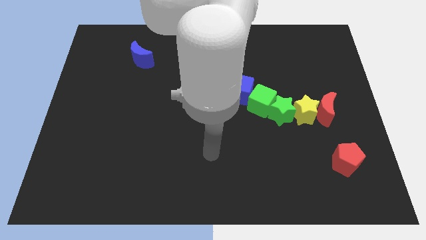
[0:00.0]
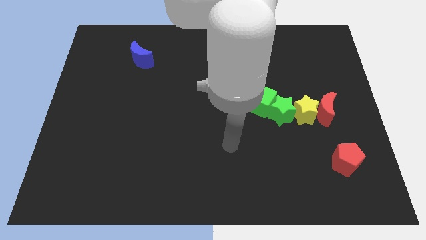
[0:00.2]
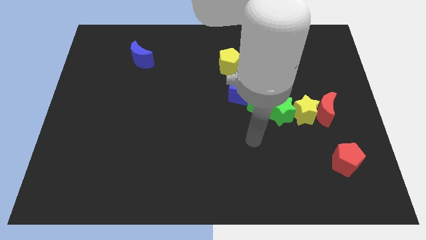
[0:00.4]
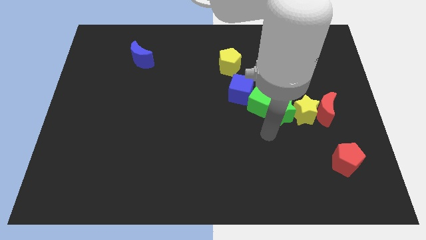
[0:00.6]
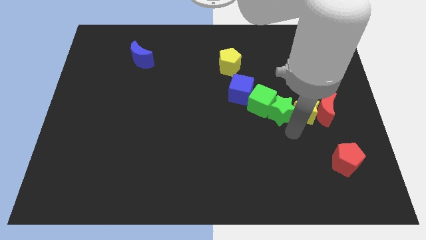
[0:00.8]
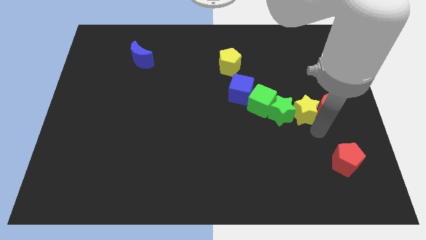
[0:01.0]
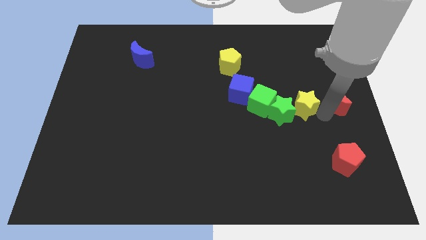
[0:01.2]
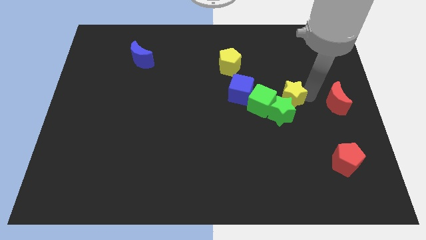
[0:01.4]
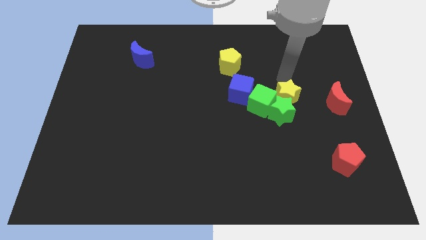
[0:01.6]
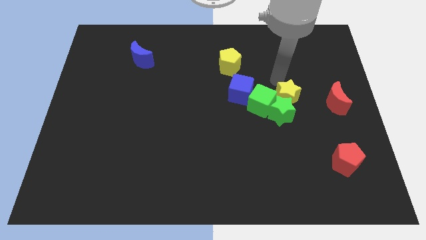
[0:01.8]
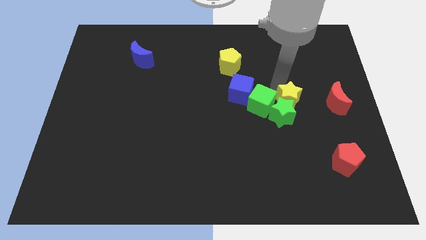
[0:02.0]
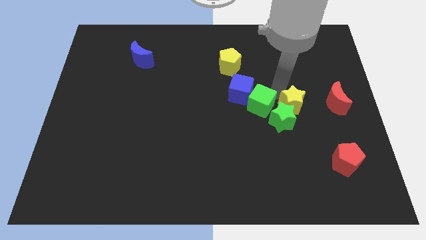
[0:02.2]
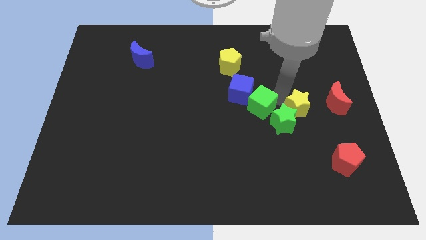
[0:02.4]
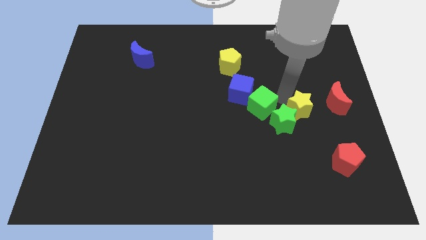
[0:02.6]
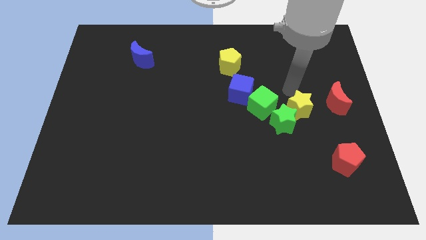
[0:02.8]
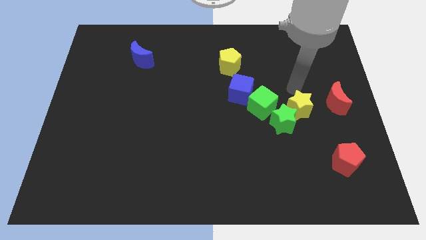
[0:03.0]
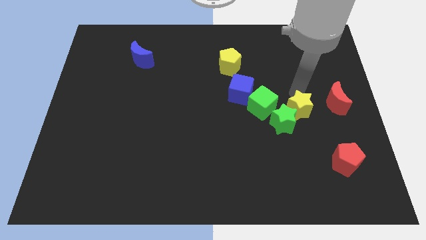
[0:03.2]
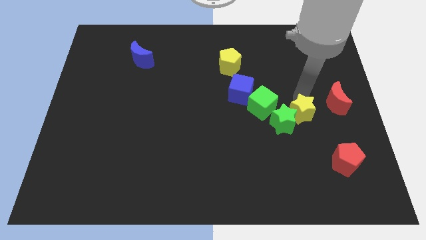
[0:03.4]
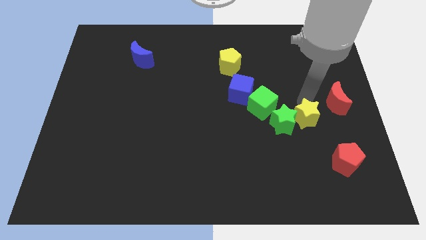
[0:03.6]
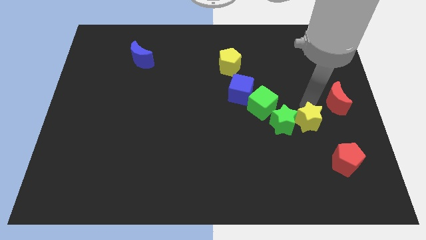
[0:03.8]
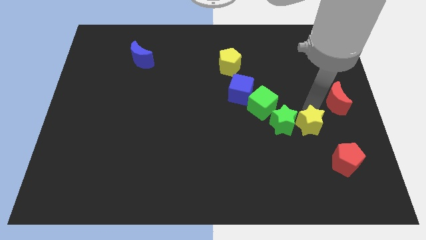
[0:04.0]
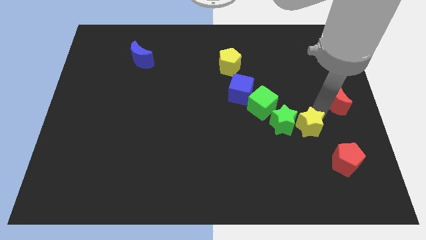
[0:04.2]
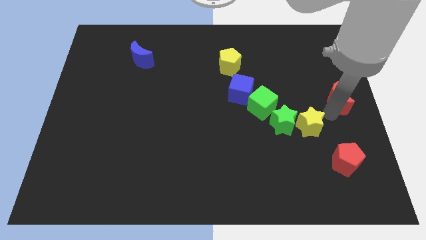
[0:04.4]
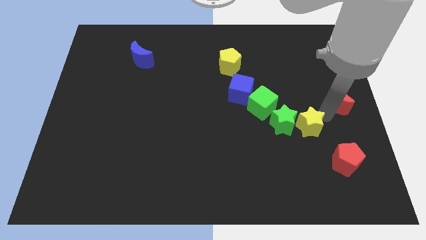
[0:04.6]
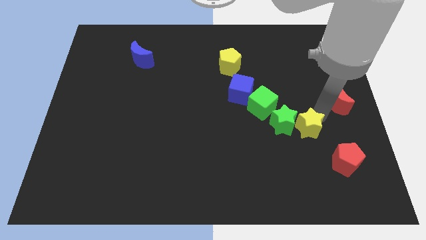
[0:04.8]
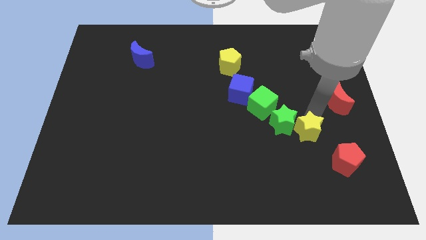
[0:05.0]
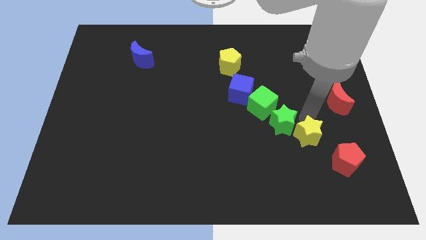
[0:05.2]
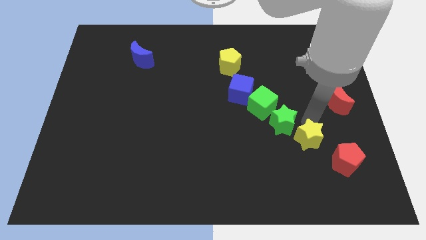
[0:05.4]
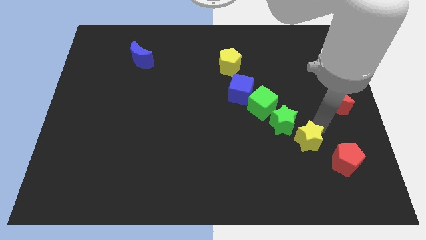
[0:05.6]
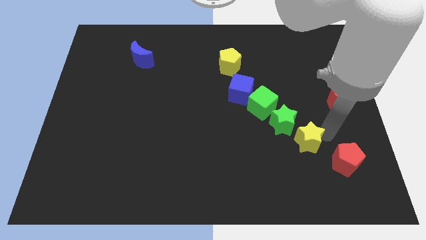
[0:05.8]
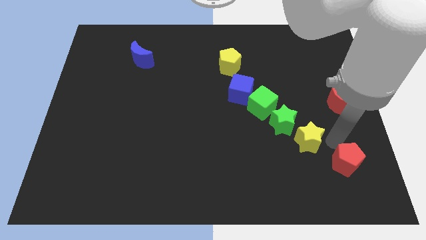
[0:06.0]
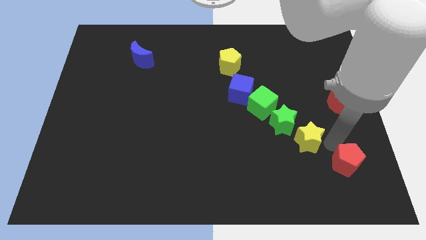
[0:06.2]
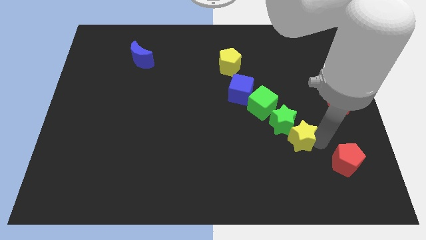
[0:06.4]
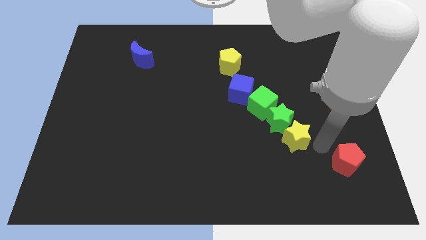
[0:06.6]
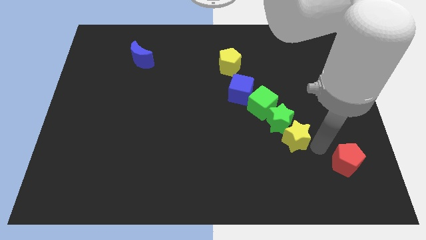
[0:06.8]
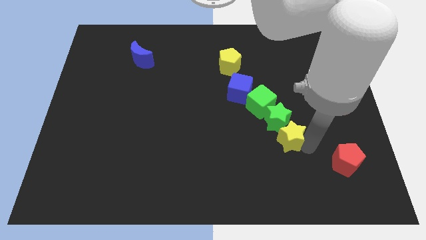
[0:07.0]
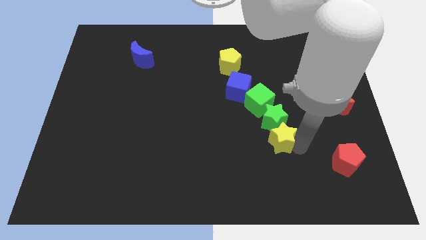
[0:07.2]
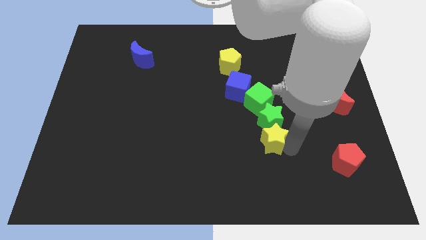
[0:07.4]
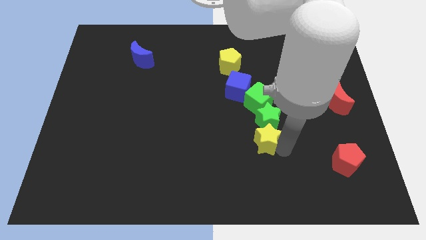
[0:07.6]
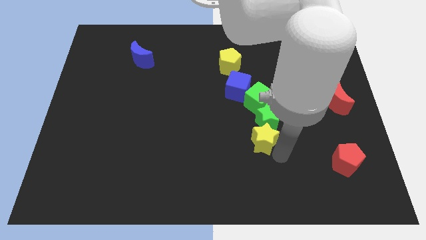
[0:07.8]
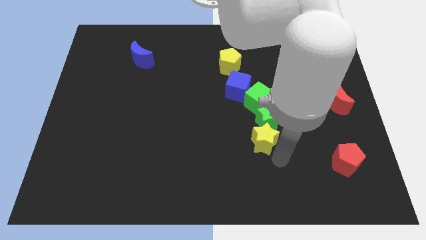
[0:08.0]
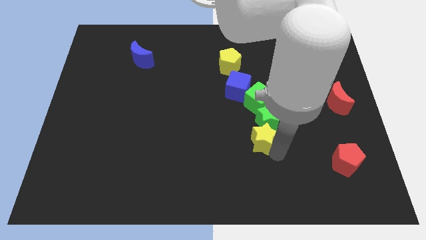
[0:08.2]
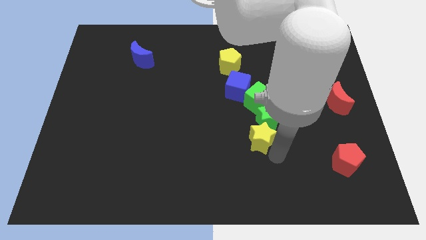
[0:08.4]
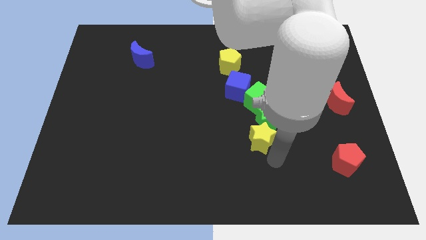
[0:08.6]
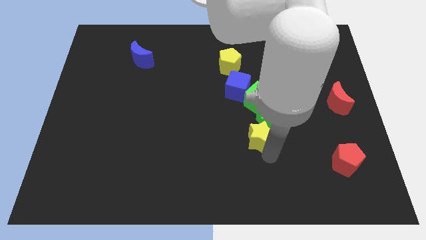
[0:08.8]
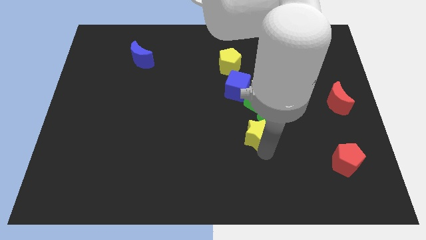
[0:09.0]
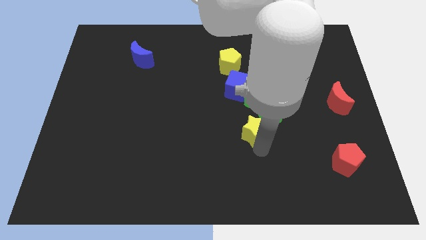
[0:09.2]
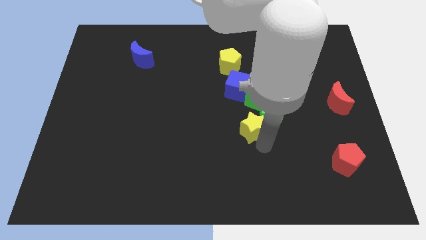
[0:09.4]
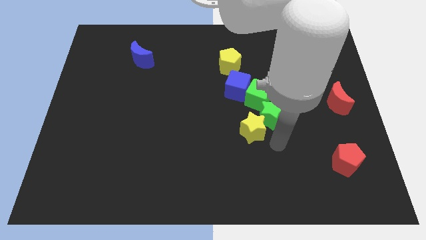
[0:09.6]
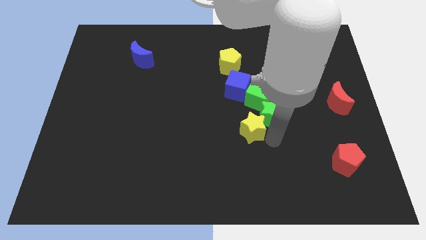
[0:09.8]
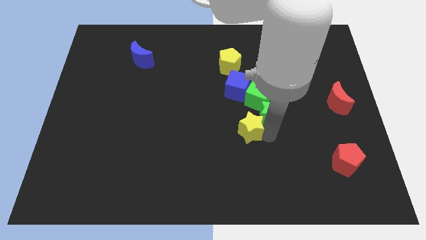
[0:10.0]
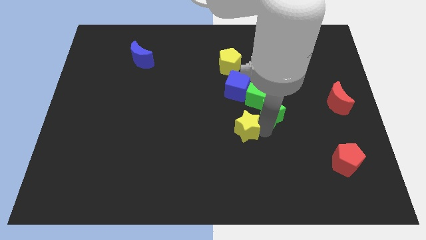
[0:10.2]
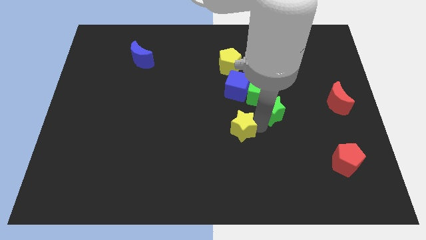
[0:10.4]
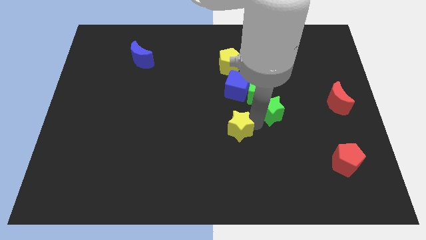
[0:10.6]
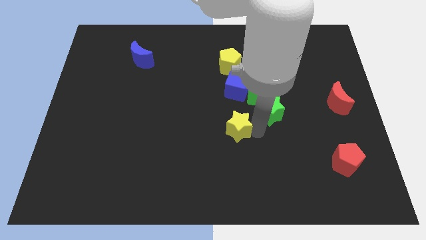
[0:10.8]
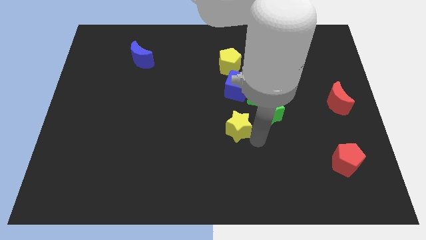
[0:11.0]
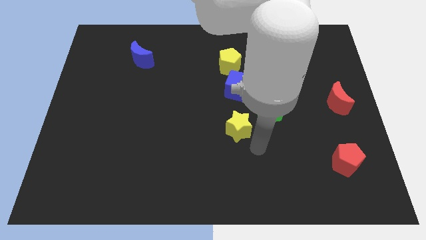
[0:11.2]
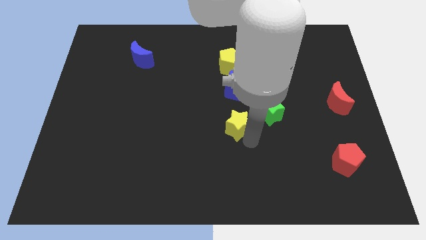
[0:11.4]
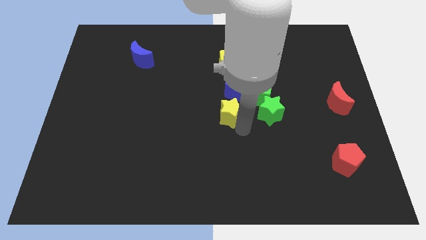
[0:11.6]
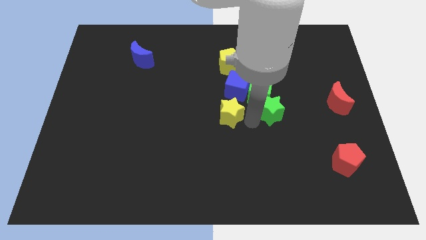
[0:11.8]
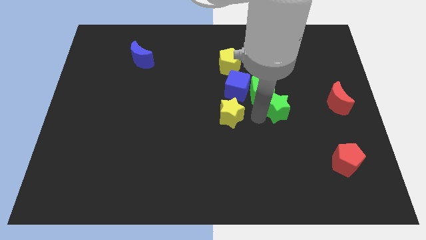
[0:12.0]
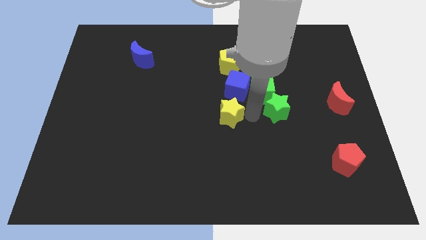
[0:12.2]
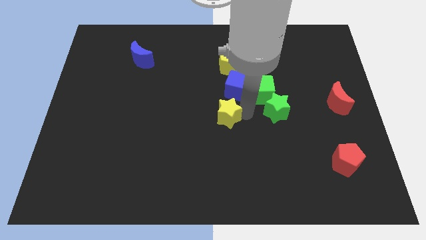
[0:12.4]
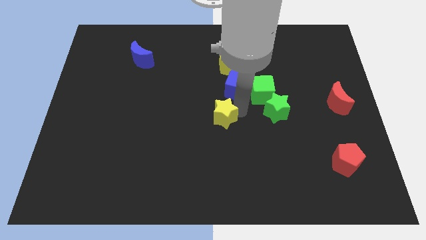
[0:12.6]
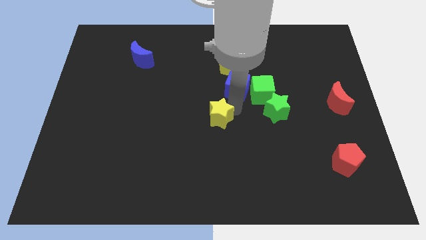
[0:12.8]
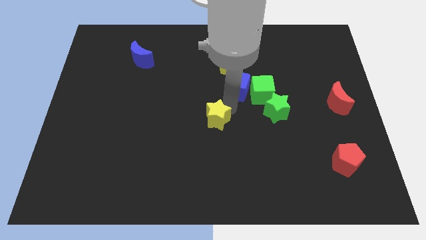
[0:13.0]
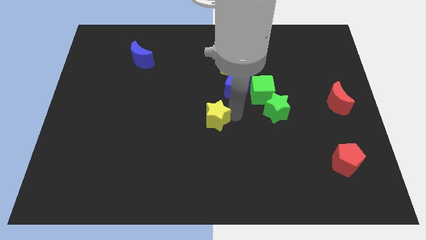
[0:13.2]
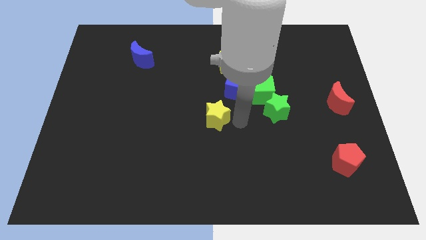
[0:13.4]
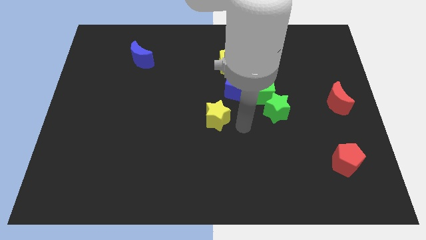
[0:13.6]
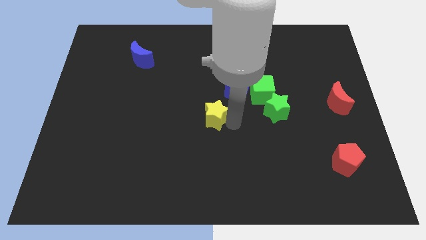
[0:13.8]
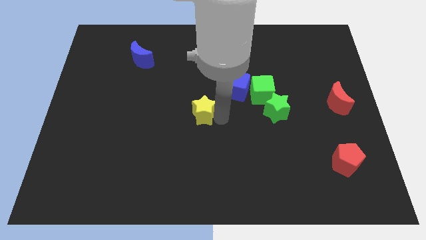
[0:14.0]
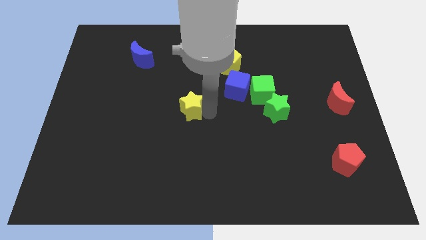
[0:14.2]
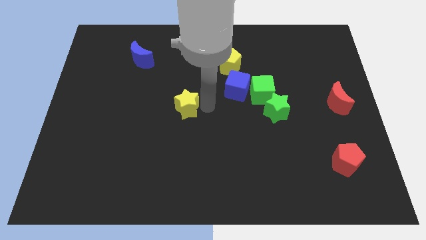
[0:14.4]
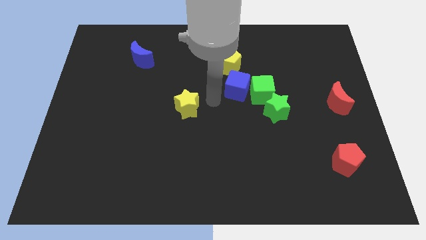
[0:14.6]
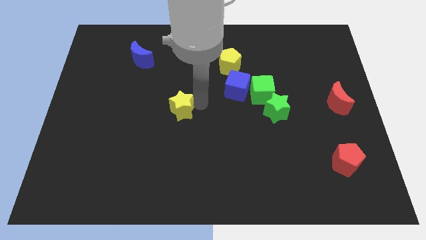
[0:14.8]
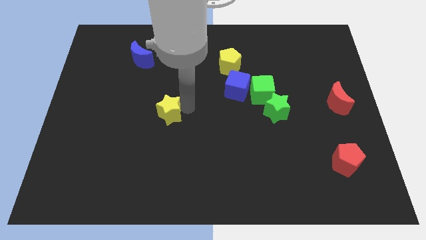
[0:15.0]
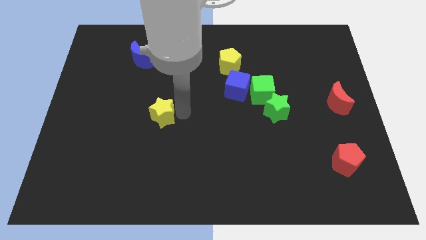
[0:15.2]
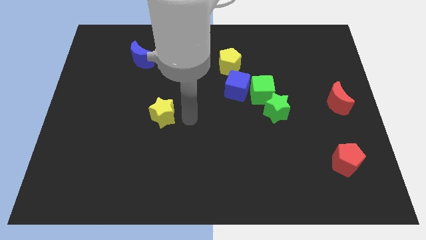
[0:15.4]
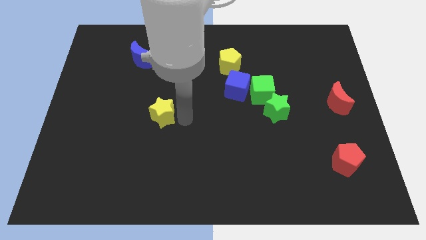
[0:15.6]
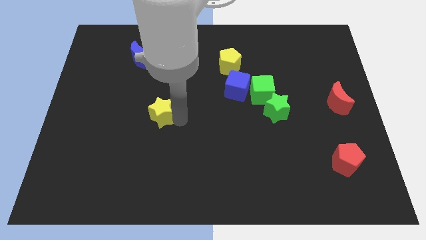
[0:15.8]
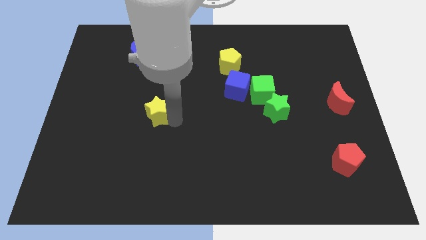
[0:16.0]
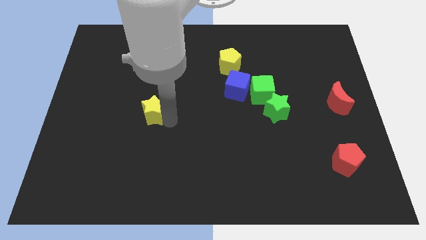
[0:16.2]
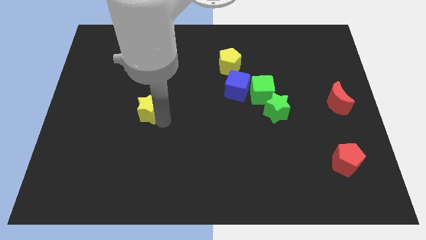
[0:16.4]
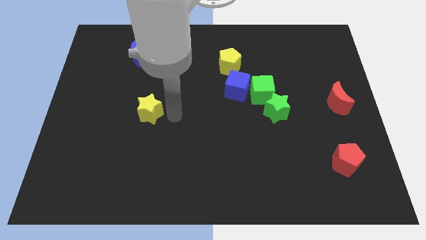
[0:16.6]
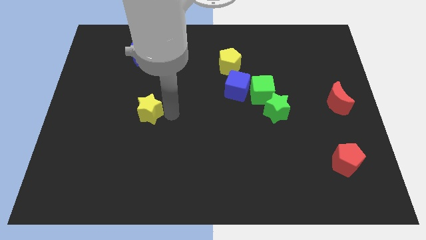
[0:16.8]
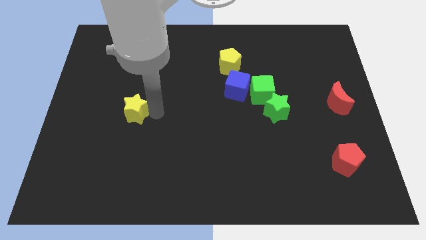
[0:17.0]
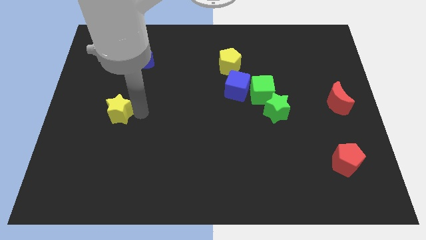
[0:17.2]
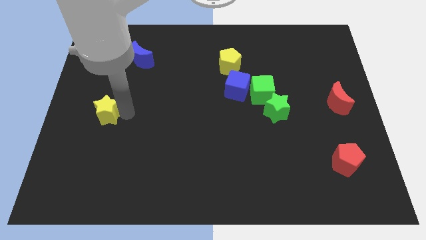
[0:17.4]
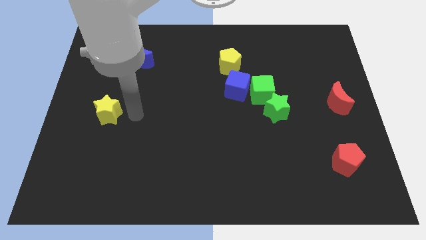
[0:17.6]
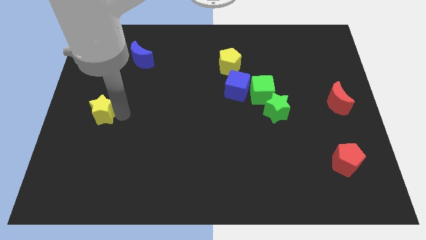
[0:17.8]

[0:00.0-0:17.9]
slide the yellow star to the center left
